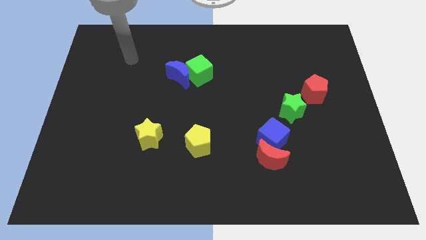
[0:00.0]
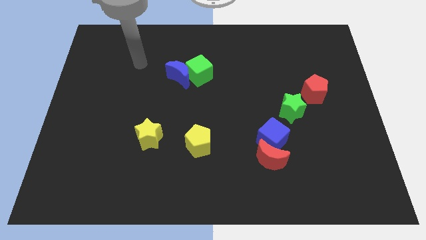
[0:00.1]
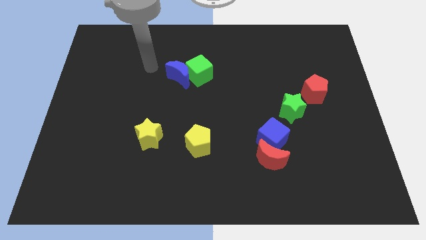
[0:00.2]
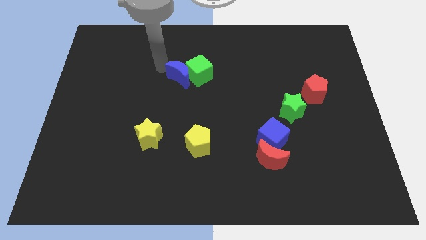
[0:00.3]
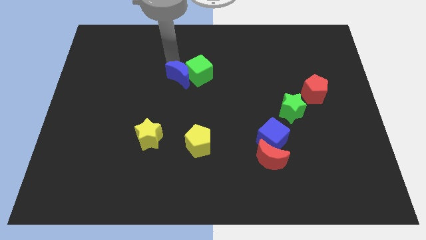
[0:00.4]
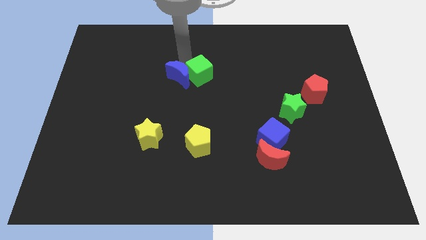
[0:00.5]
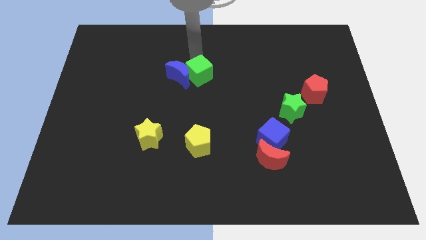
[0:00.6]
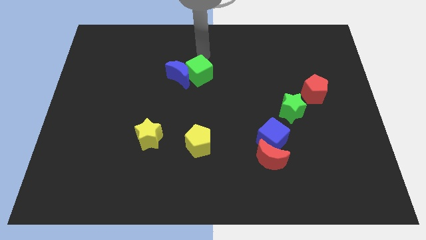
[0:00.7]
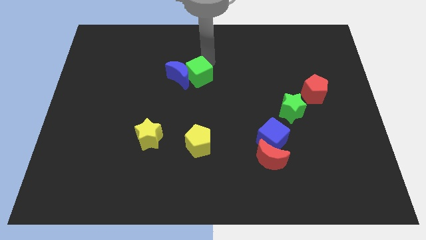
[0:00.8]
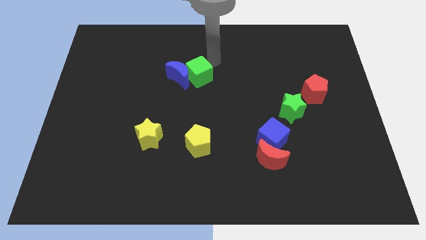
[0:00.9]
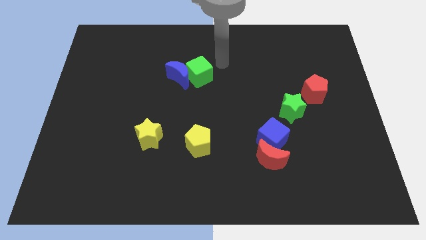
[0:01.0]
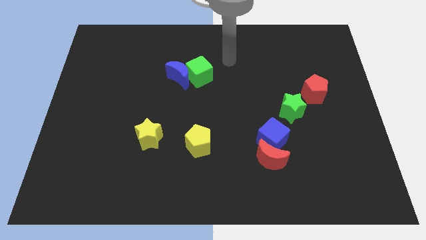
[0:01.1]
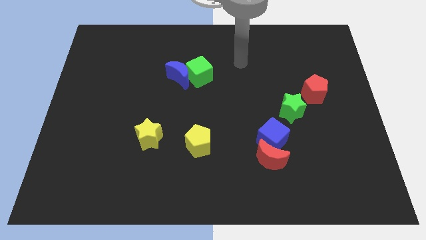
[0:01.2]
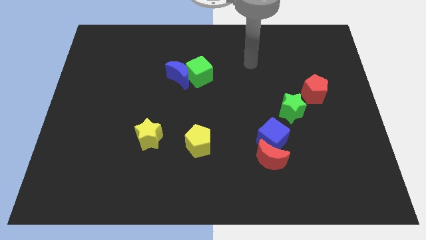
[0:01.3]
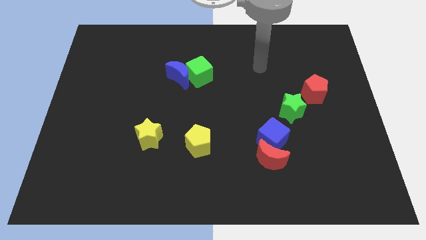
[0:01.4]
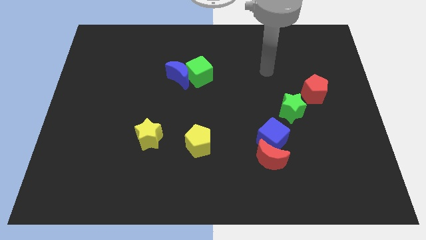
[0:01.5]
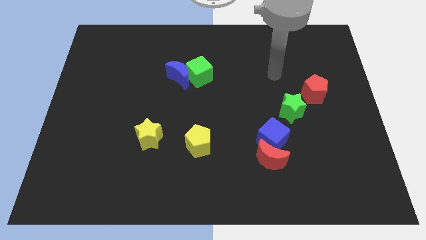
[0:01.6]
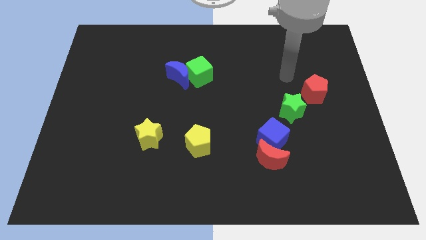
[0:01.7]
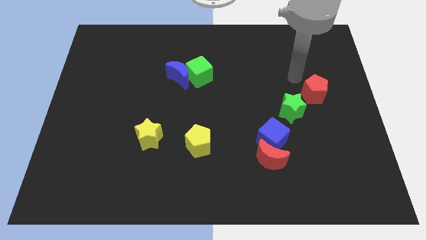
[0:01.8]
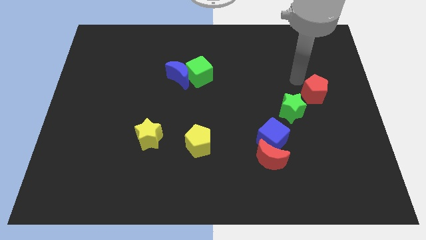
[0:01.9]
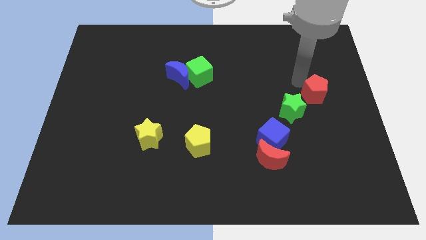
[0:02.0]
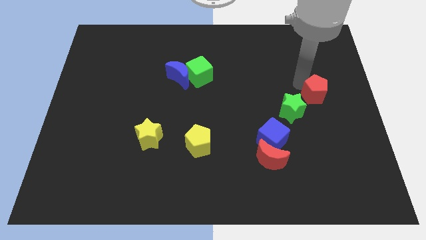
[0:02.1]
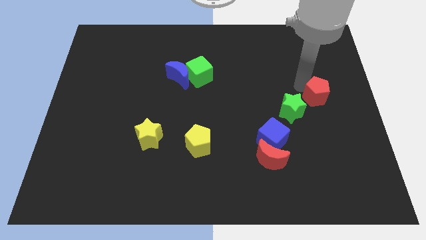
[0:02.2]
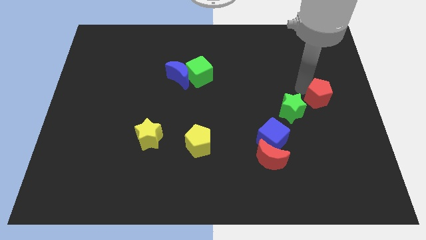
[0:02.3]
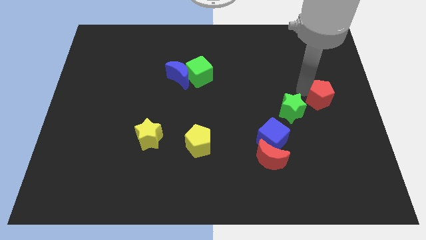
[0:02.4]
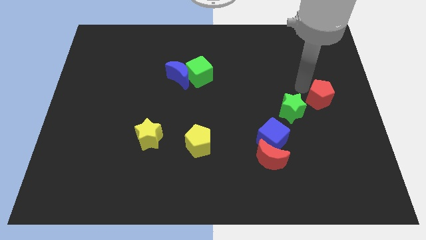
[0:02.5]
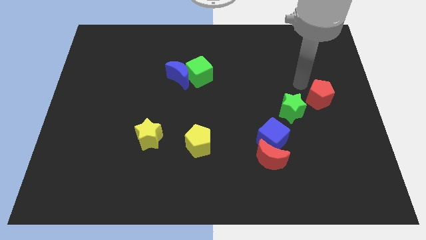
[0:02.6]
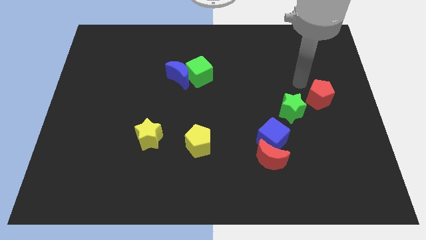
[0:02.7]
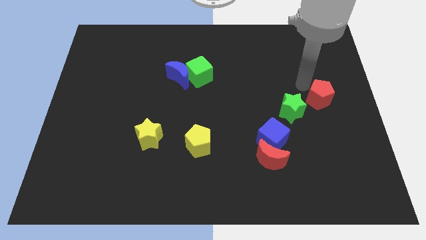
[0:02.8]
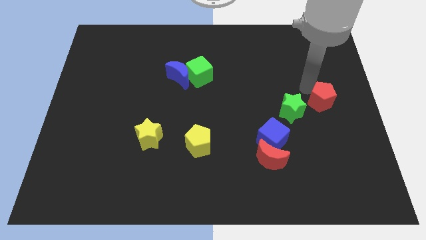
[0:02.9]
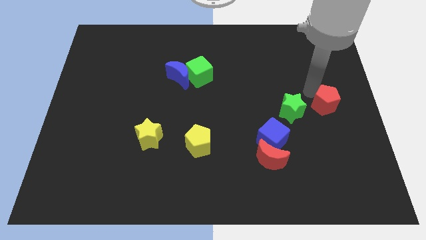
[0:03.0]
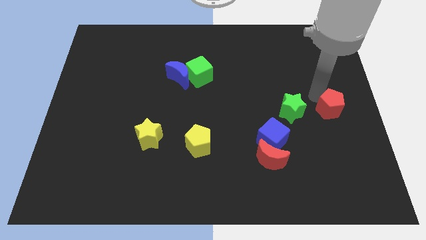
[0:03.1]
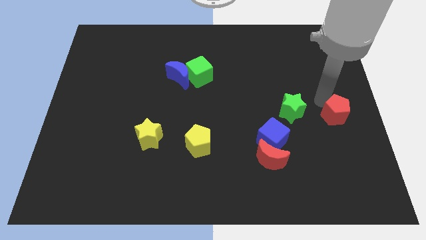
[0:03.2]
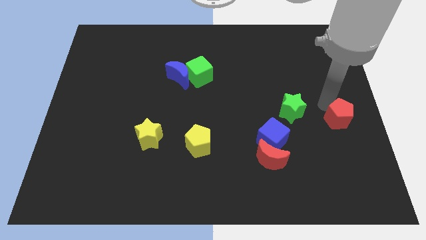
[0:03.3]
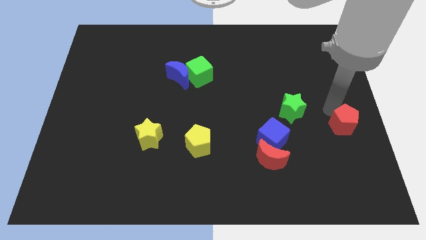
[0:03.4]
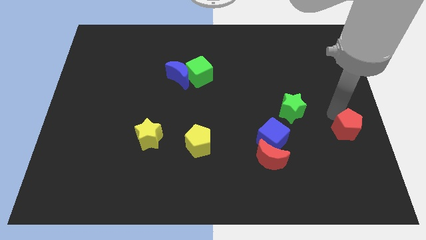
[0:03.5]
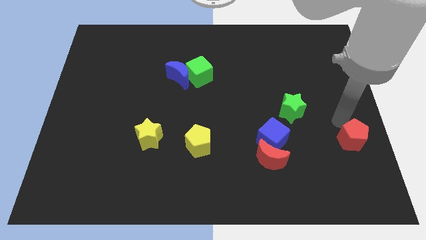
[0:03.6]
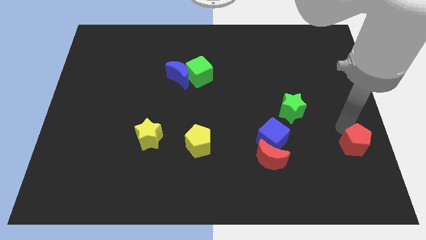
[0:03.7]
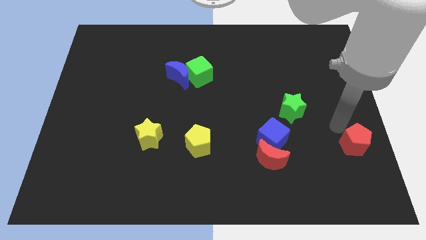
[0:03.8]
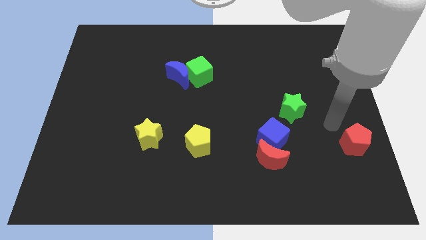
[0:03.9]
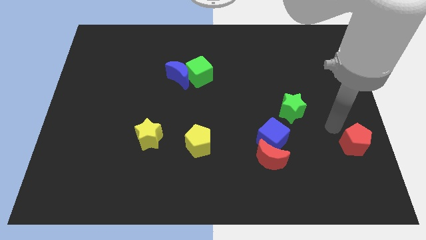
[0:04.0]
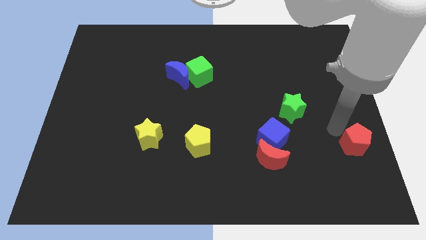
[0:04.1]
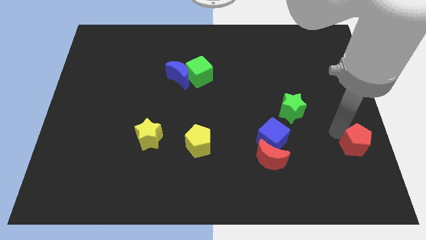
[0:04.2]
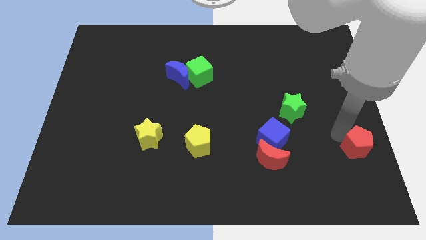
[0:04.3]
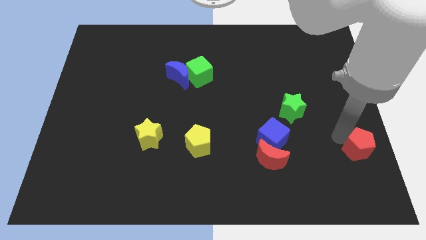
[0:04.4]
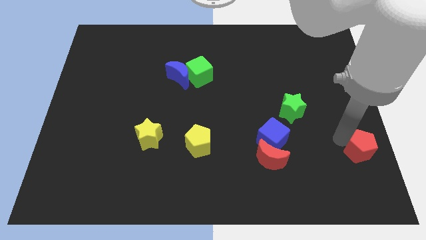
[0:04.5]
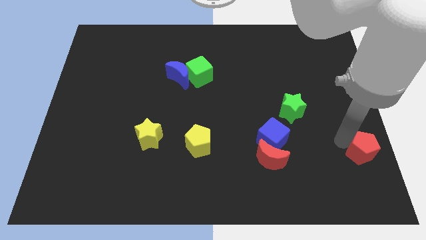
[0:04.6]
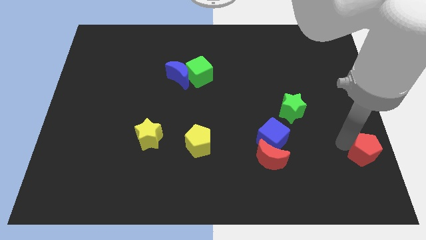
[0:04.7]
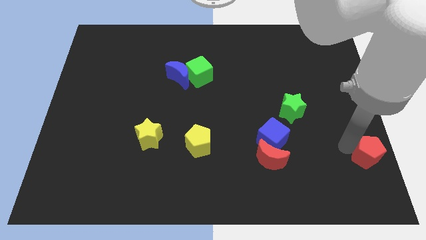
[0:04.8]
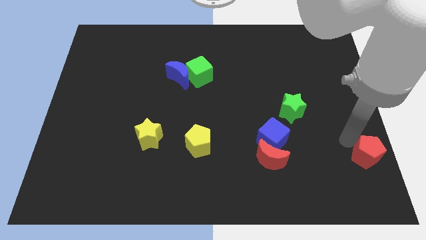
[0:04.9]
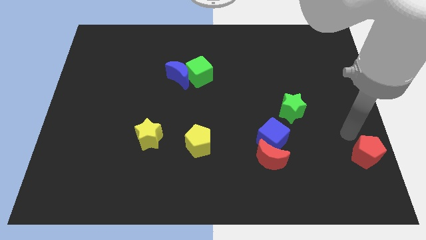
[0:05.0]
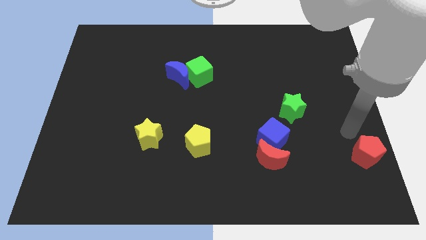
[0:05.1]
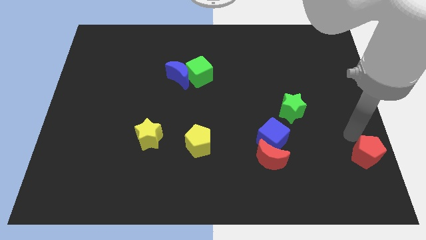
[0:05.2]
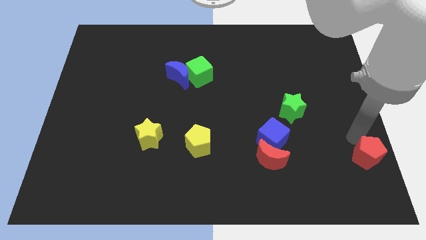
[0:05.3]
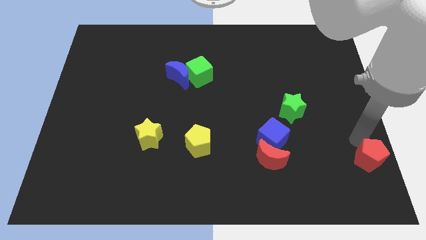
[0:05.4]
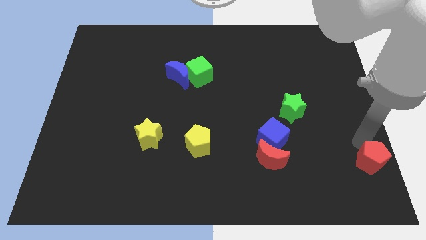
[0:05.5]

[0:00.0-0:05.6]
push the red pentagon to the lower right corner

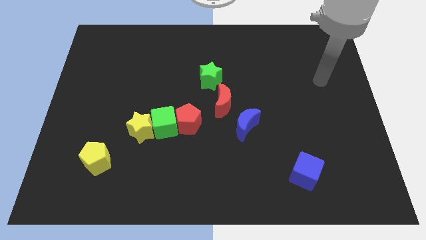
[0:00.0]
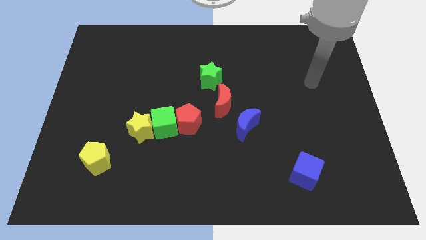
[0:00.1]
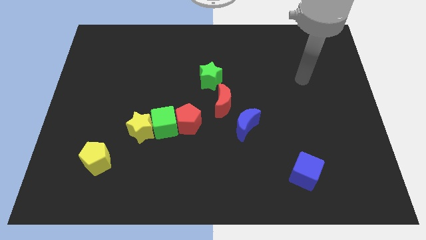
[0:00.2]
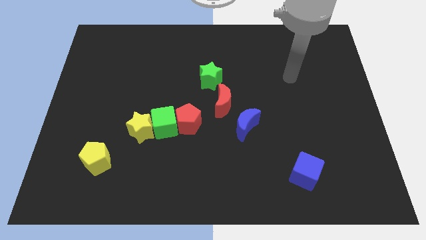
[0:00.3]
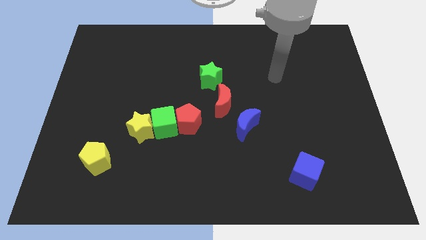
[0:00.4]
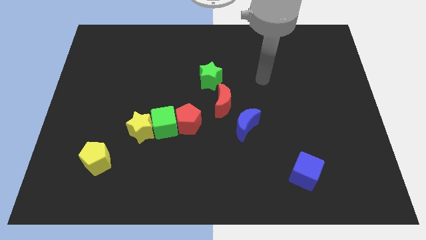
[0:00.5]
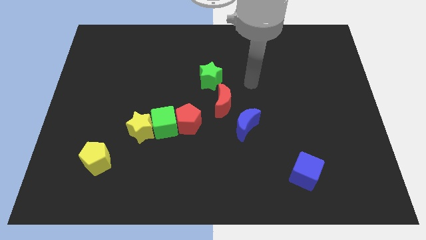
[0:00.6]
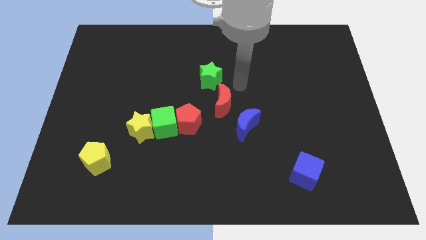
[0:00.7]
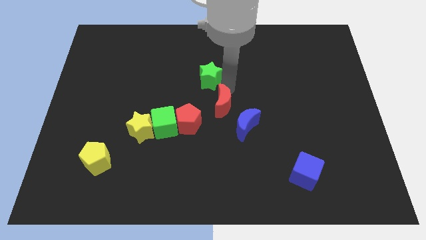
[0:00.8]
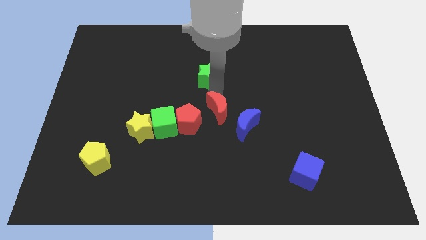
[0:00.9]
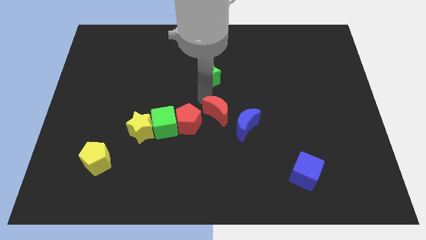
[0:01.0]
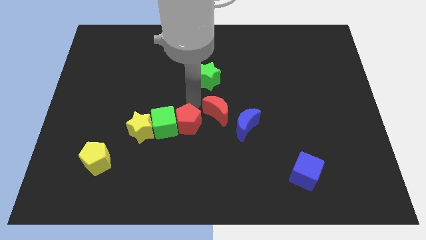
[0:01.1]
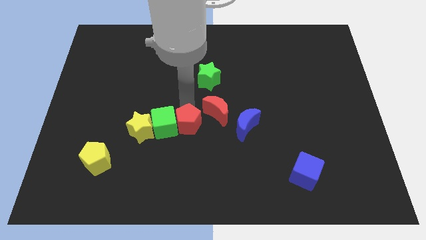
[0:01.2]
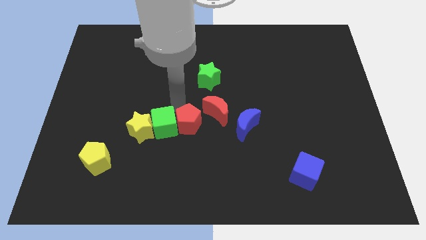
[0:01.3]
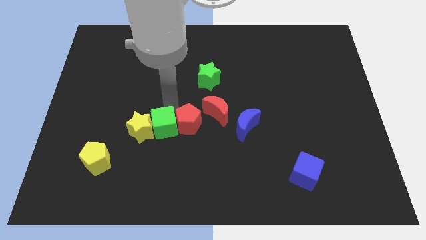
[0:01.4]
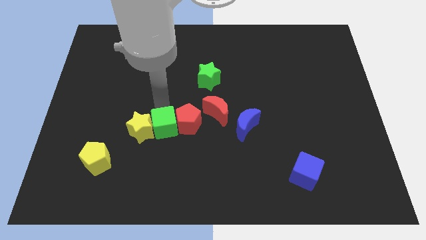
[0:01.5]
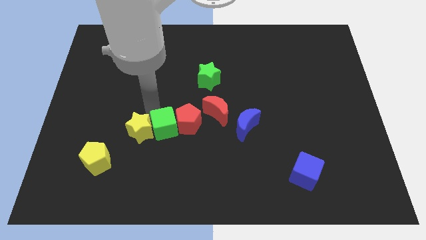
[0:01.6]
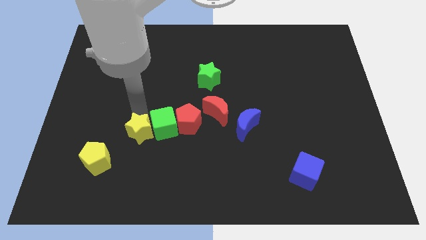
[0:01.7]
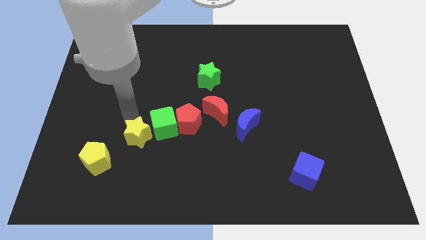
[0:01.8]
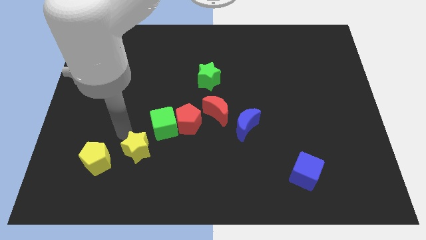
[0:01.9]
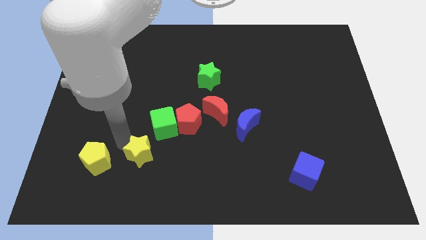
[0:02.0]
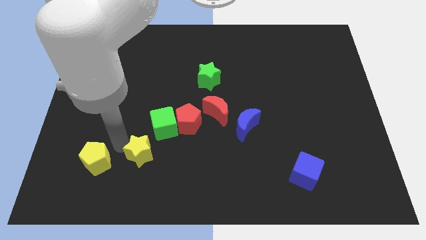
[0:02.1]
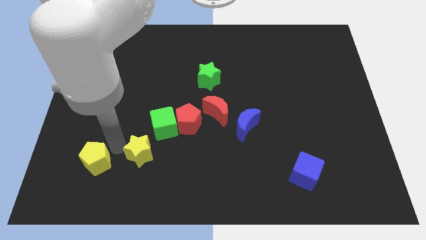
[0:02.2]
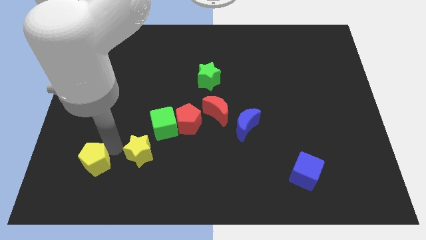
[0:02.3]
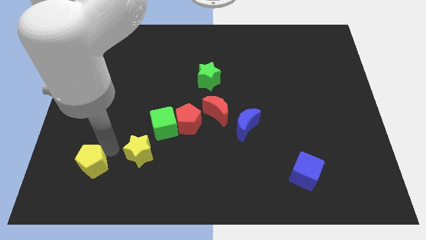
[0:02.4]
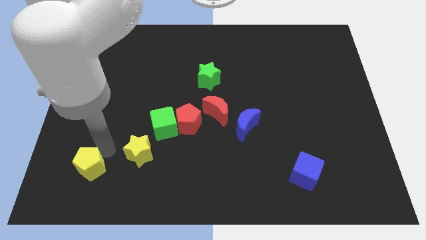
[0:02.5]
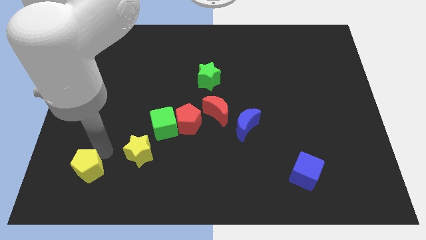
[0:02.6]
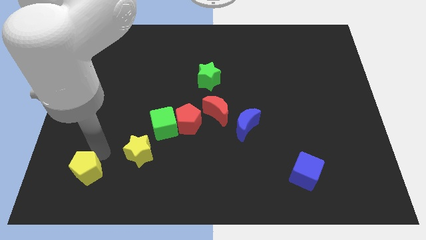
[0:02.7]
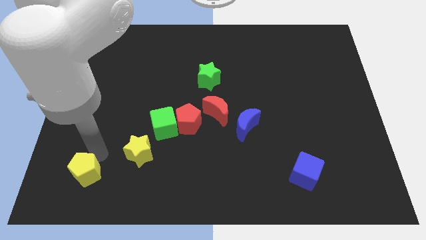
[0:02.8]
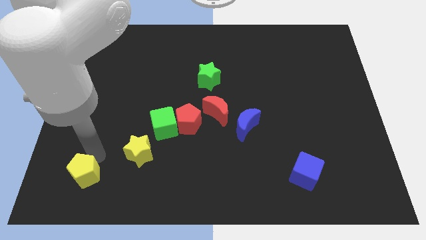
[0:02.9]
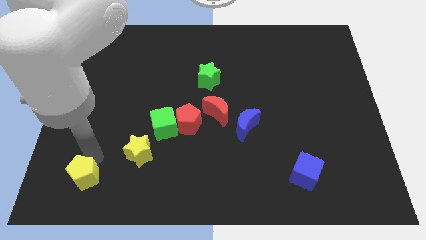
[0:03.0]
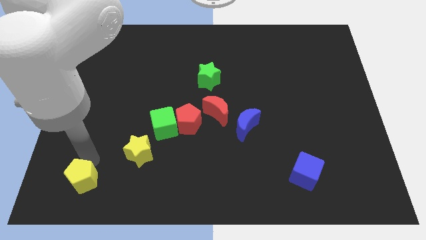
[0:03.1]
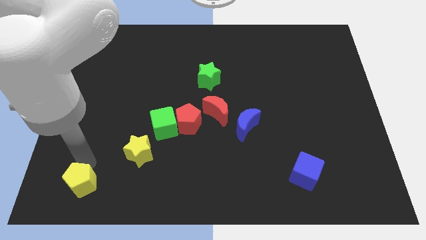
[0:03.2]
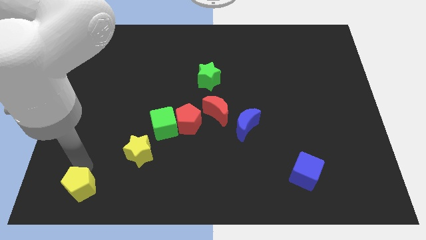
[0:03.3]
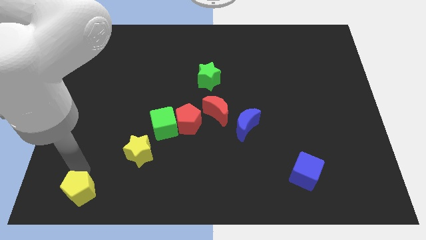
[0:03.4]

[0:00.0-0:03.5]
push the yellow pentagon to the bottom left corner
